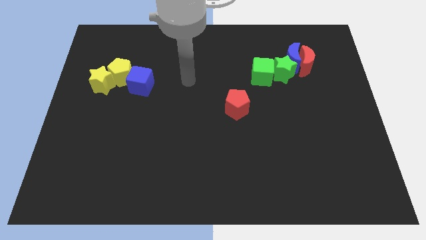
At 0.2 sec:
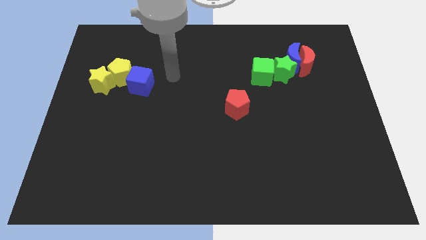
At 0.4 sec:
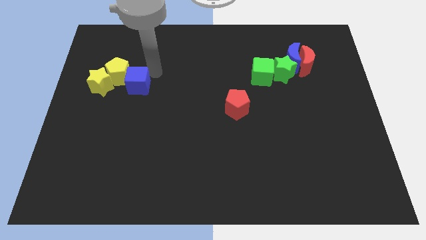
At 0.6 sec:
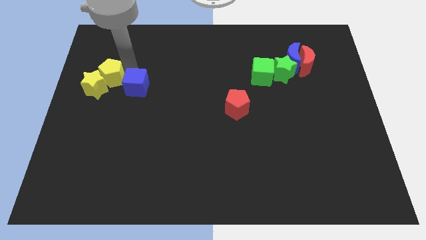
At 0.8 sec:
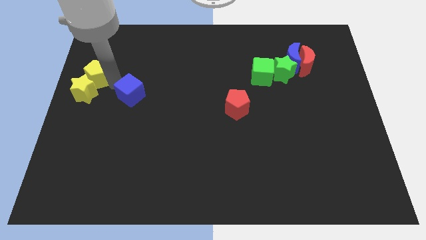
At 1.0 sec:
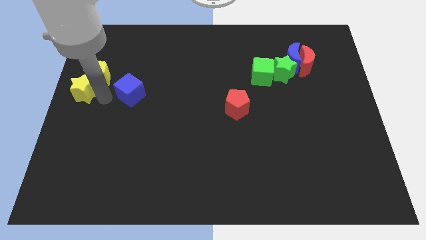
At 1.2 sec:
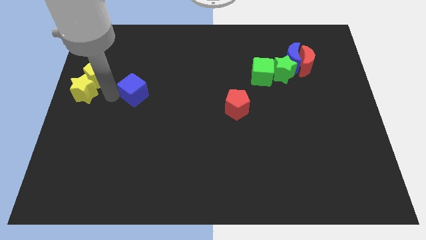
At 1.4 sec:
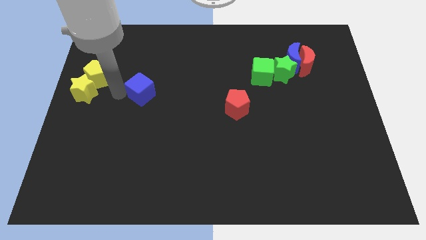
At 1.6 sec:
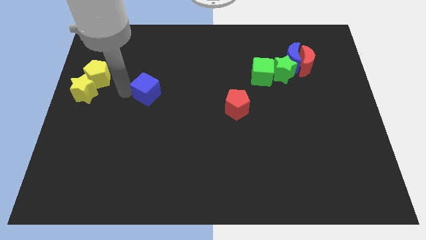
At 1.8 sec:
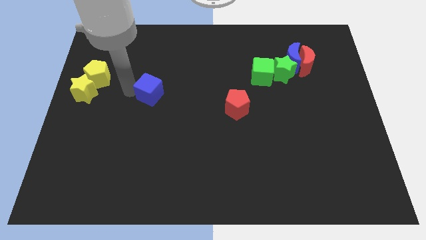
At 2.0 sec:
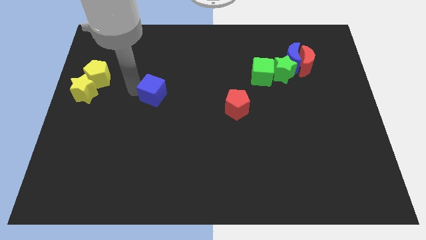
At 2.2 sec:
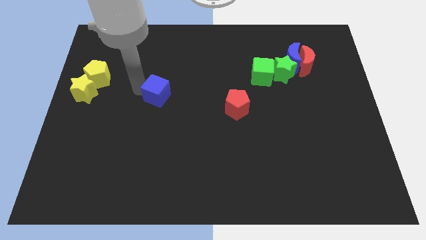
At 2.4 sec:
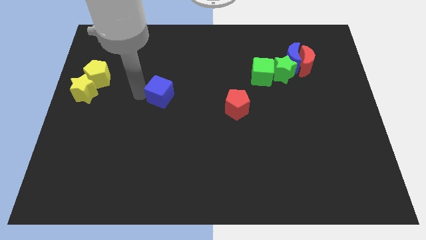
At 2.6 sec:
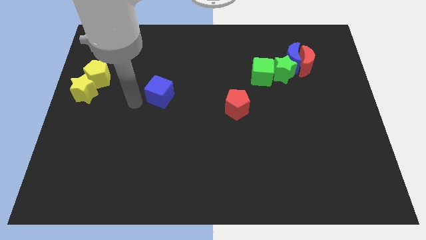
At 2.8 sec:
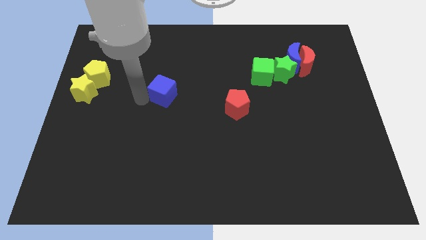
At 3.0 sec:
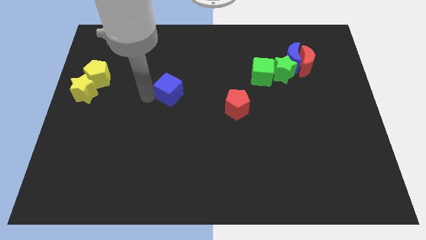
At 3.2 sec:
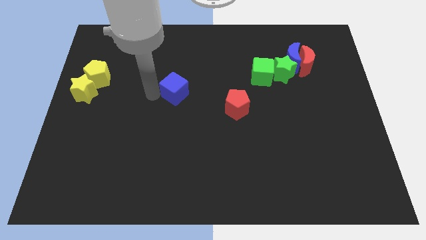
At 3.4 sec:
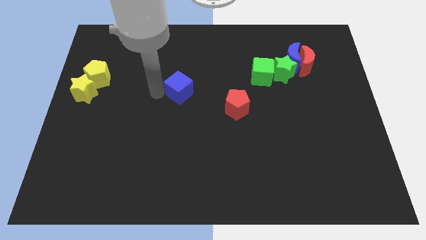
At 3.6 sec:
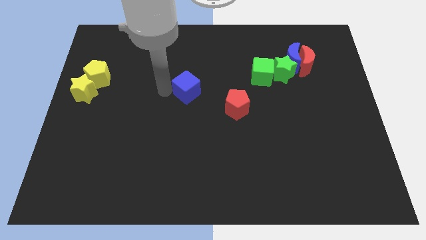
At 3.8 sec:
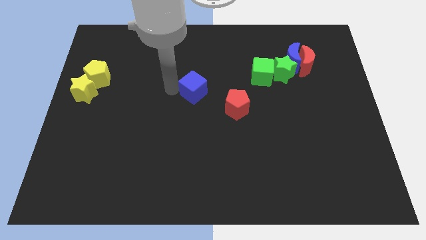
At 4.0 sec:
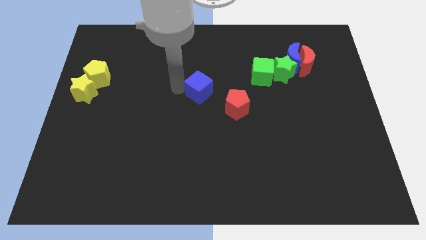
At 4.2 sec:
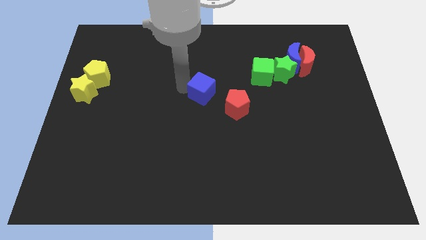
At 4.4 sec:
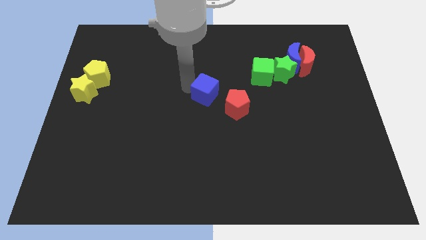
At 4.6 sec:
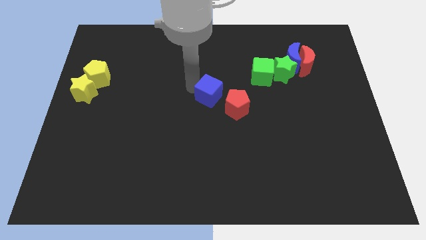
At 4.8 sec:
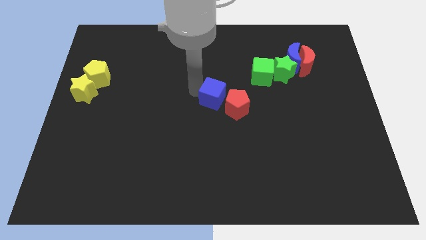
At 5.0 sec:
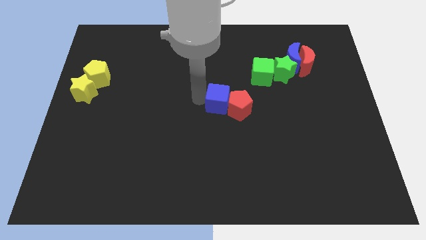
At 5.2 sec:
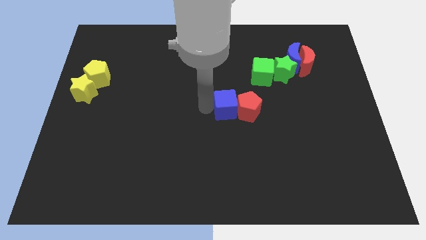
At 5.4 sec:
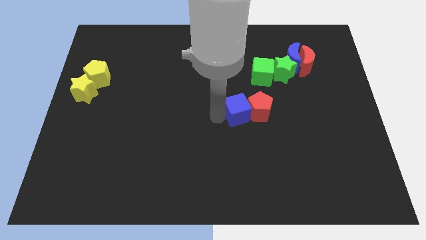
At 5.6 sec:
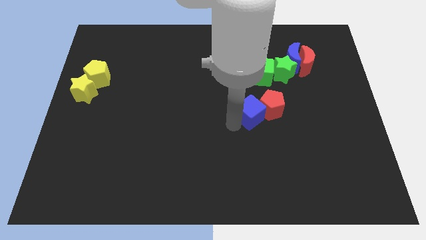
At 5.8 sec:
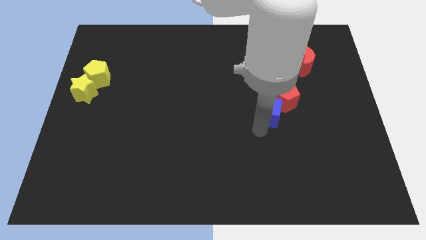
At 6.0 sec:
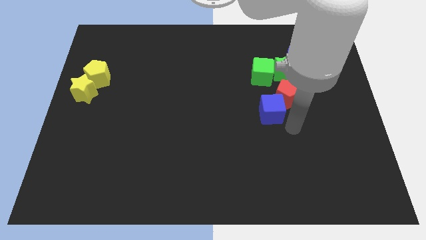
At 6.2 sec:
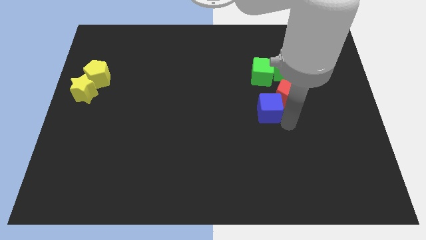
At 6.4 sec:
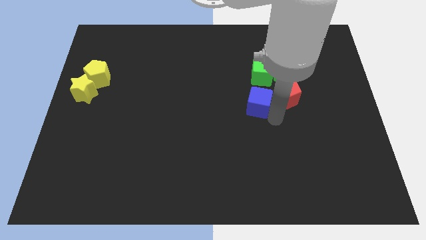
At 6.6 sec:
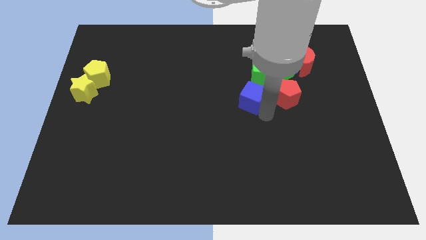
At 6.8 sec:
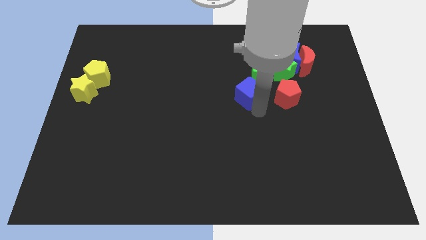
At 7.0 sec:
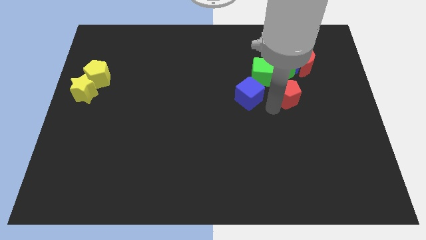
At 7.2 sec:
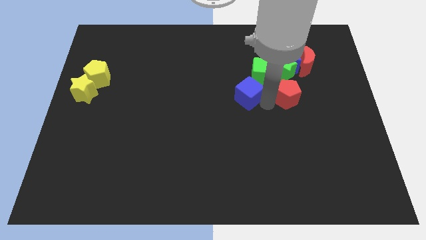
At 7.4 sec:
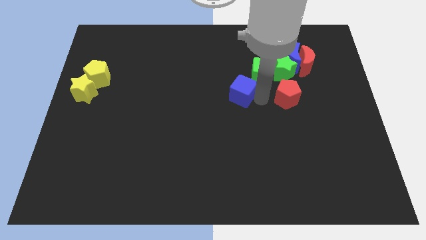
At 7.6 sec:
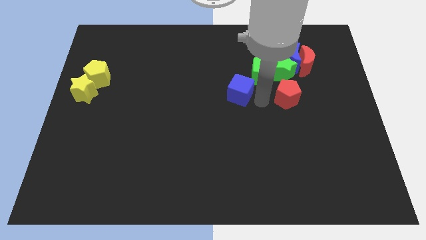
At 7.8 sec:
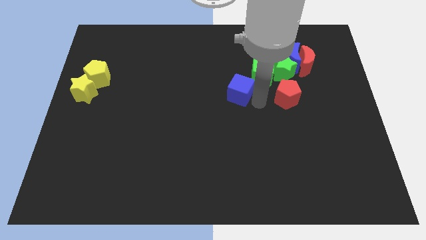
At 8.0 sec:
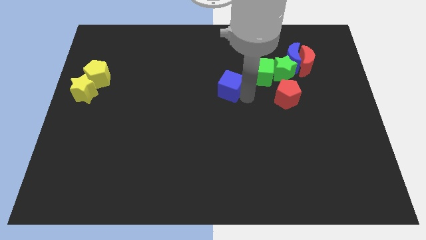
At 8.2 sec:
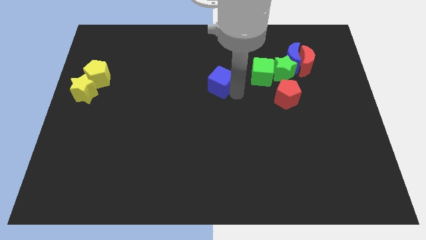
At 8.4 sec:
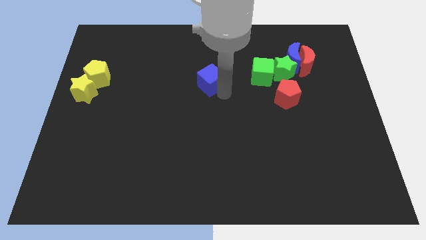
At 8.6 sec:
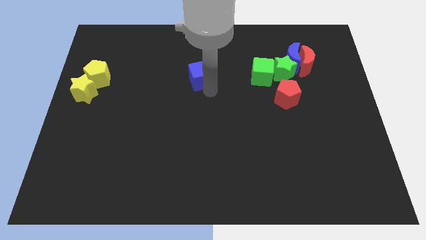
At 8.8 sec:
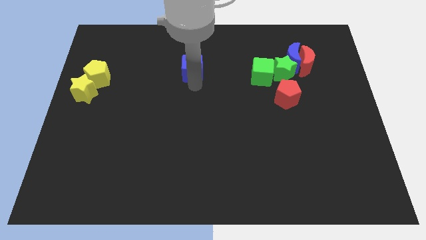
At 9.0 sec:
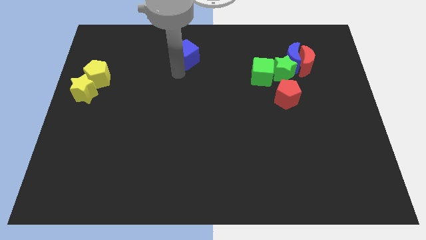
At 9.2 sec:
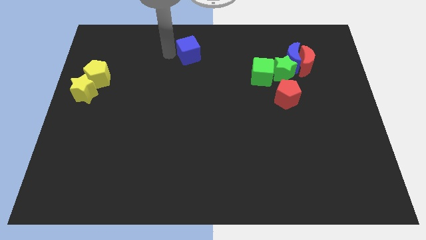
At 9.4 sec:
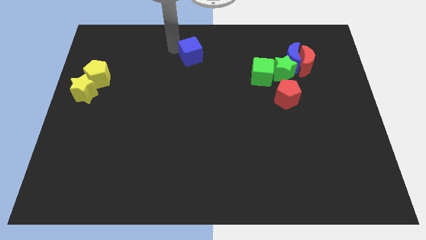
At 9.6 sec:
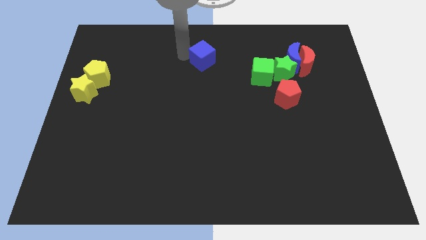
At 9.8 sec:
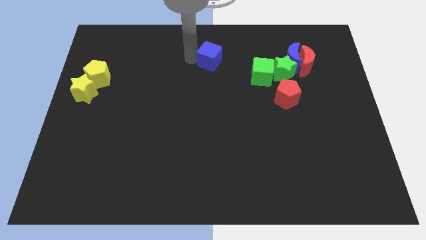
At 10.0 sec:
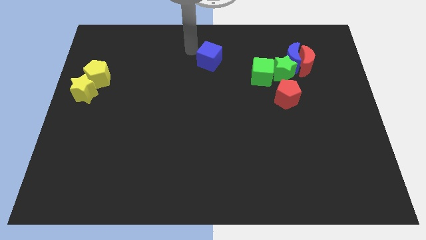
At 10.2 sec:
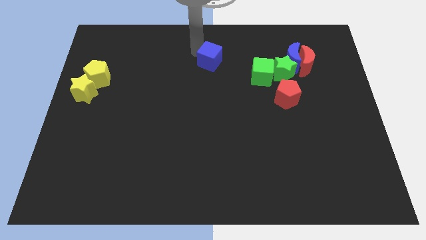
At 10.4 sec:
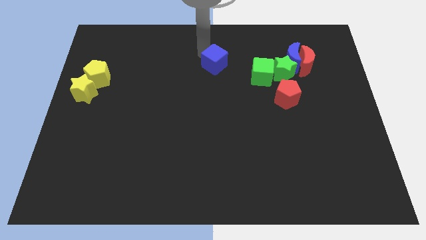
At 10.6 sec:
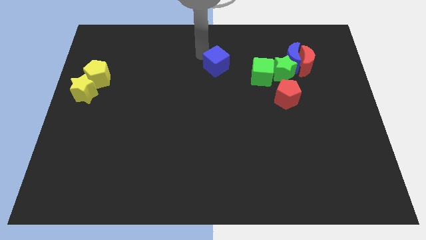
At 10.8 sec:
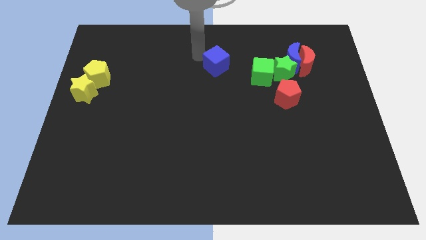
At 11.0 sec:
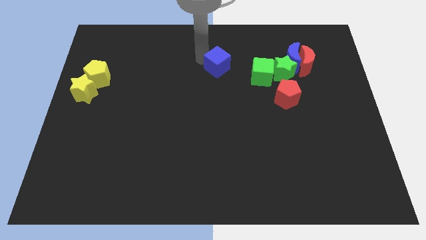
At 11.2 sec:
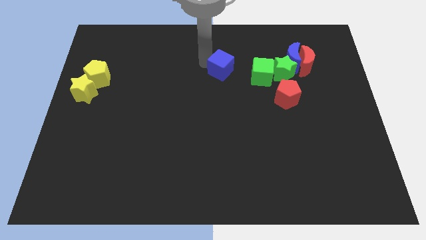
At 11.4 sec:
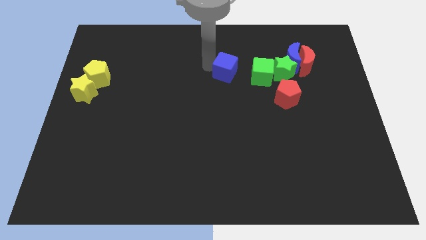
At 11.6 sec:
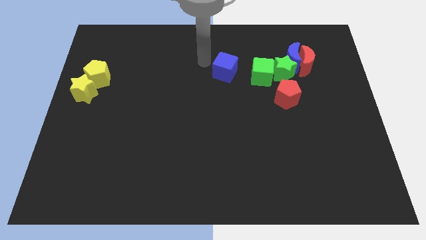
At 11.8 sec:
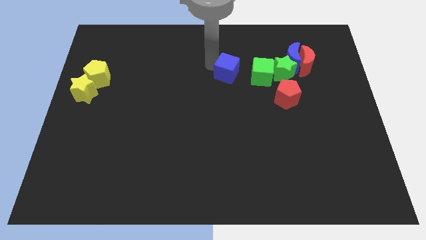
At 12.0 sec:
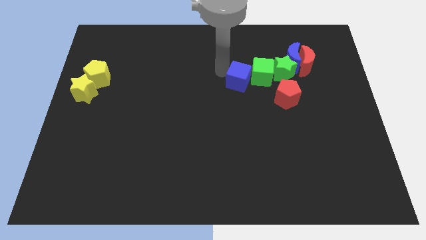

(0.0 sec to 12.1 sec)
slide the blue cube towards the green cube
